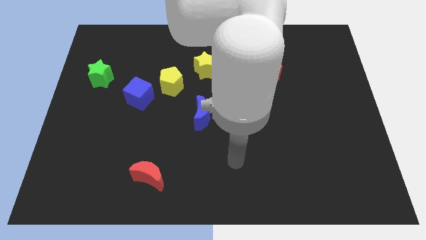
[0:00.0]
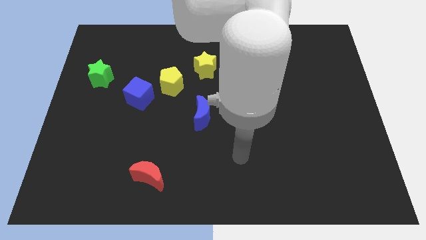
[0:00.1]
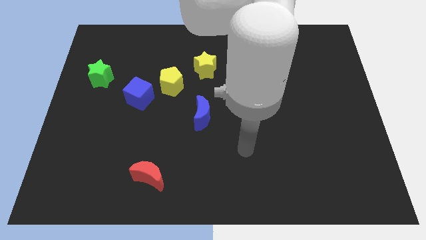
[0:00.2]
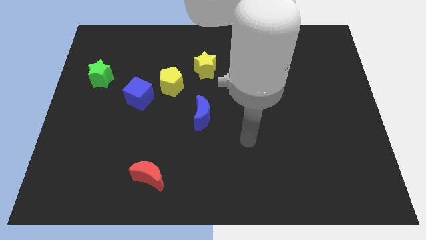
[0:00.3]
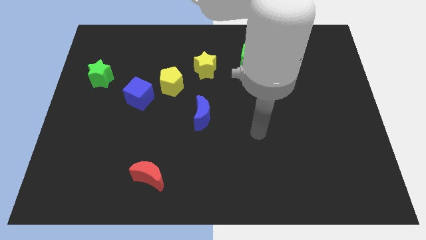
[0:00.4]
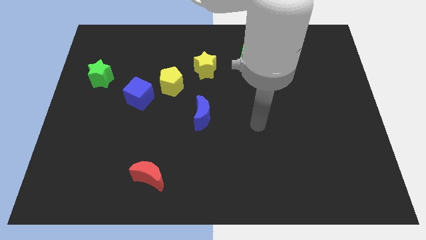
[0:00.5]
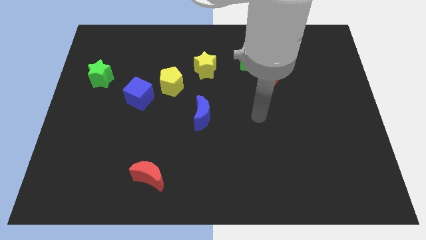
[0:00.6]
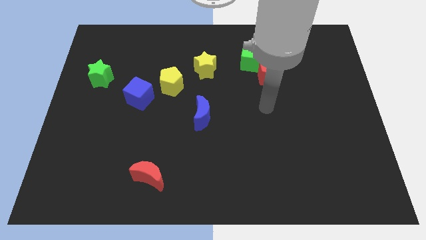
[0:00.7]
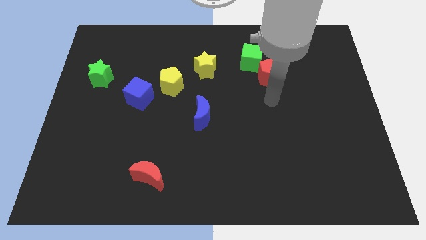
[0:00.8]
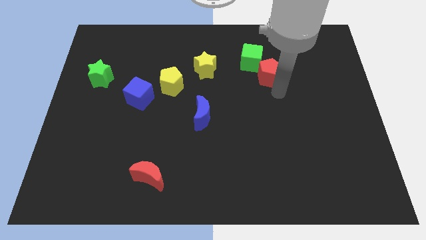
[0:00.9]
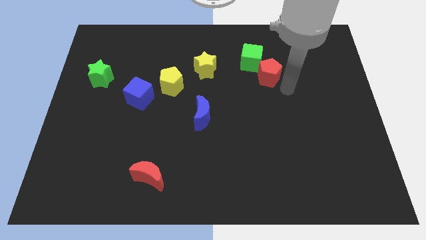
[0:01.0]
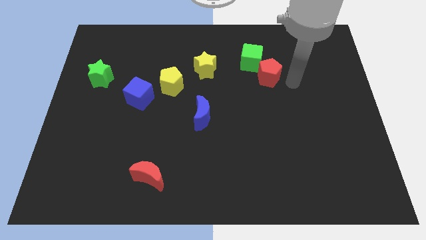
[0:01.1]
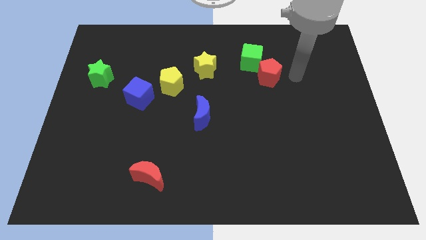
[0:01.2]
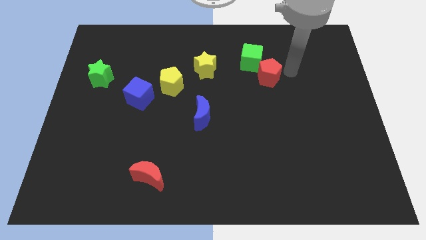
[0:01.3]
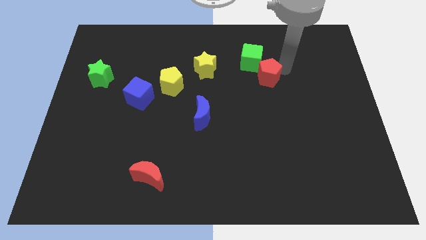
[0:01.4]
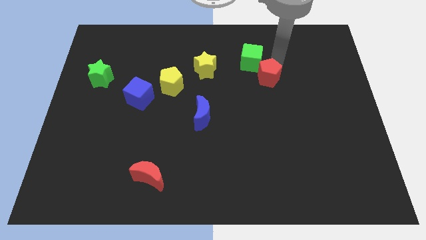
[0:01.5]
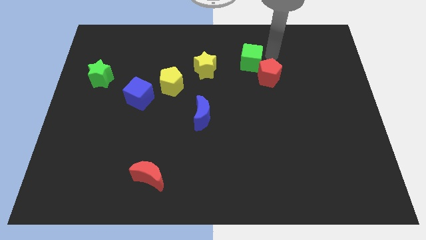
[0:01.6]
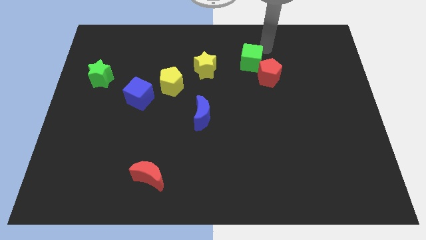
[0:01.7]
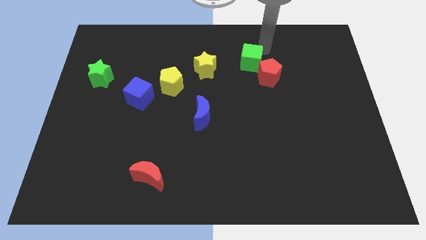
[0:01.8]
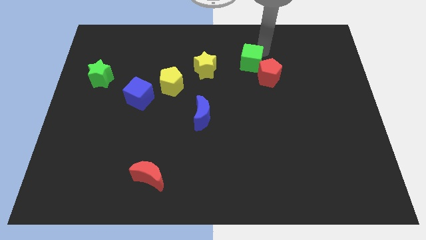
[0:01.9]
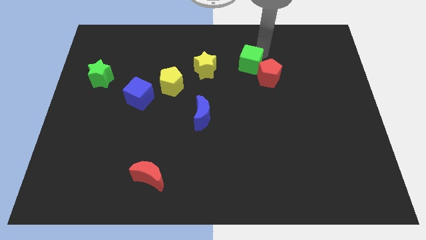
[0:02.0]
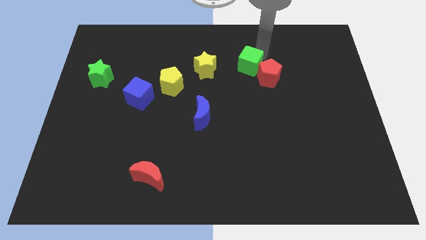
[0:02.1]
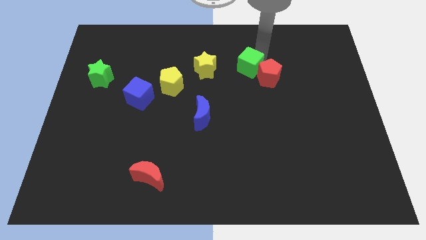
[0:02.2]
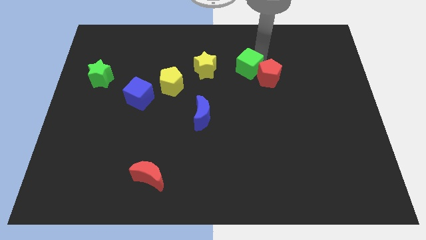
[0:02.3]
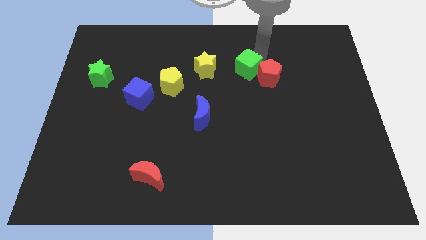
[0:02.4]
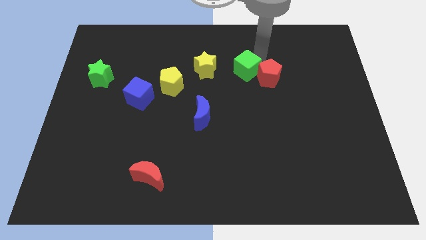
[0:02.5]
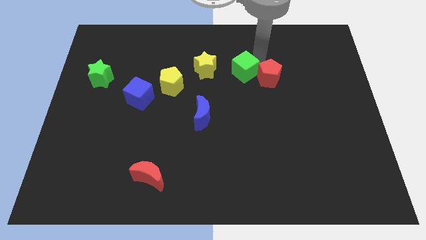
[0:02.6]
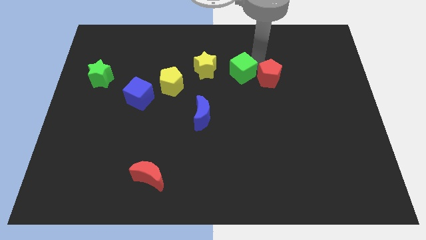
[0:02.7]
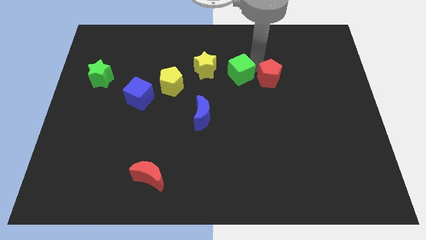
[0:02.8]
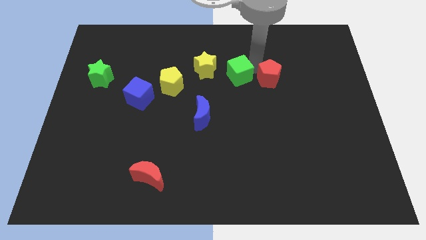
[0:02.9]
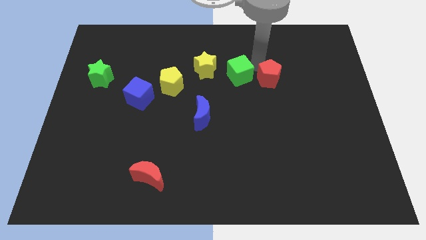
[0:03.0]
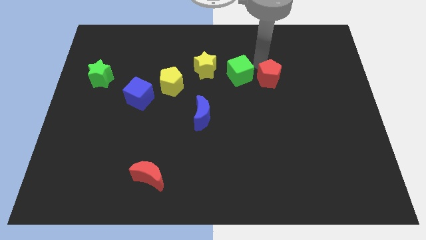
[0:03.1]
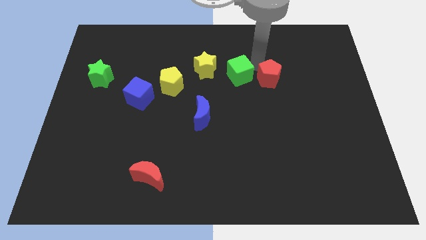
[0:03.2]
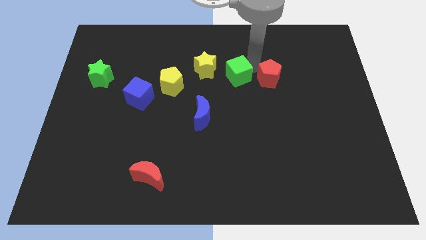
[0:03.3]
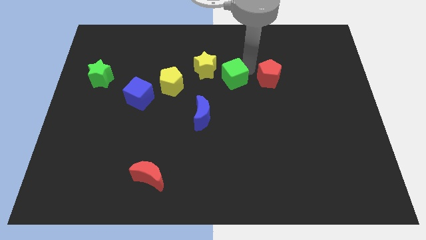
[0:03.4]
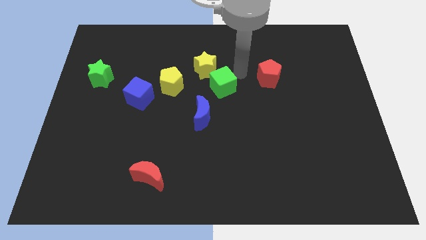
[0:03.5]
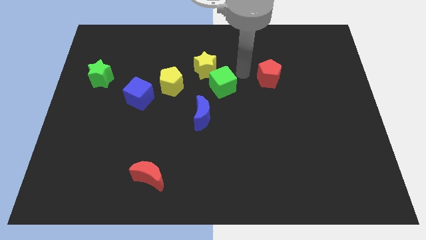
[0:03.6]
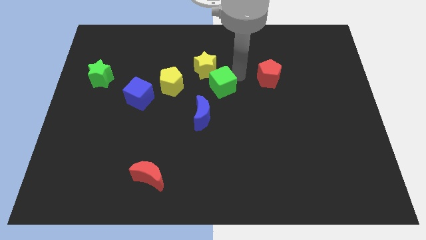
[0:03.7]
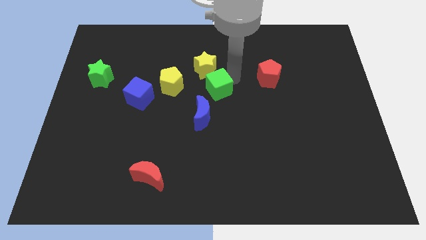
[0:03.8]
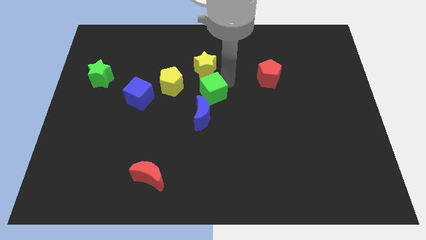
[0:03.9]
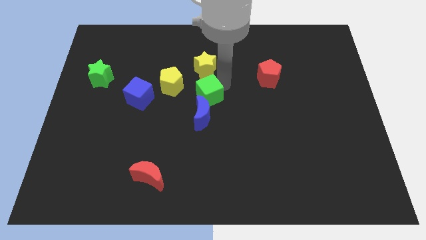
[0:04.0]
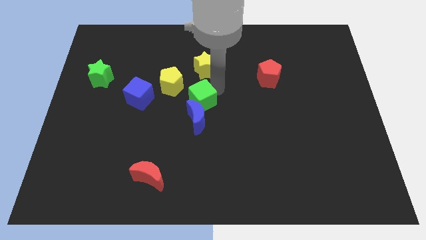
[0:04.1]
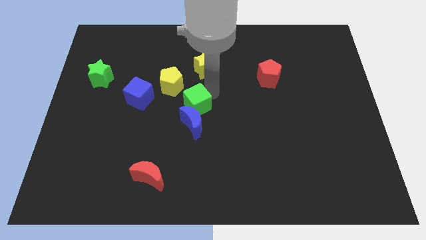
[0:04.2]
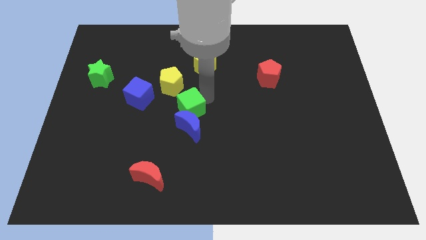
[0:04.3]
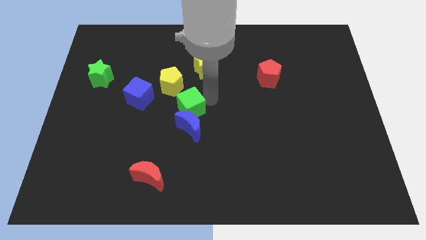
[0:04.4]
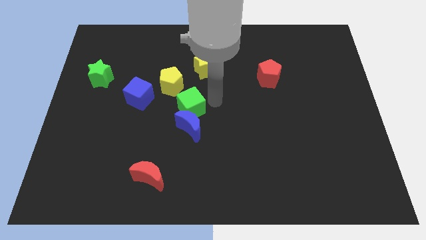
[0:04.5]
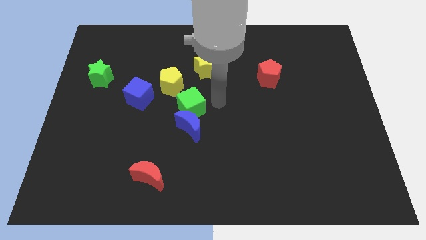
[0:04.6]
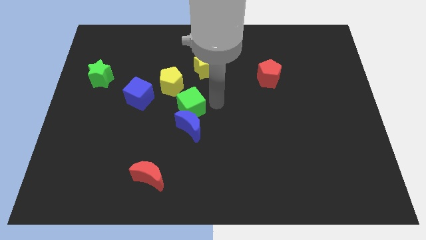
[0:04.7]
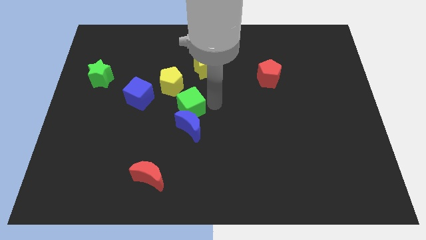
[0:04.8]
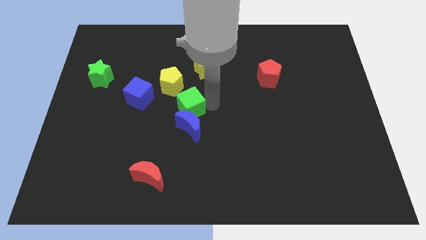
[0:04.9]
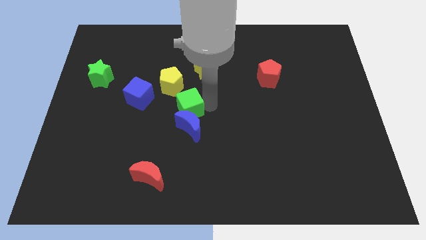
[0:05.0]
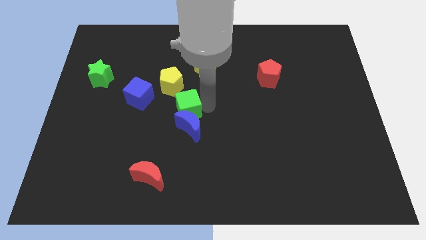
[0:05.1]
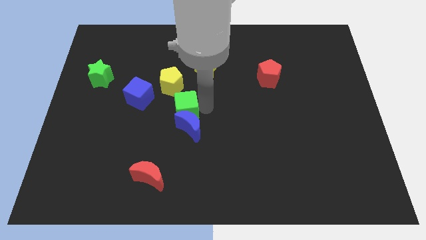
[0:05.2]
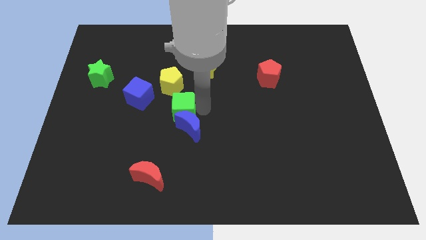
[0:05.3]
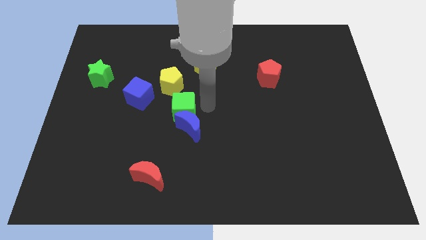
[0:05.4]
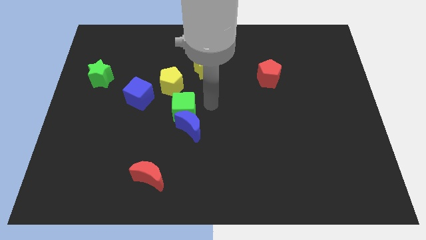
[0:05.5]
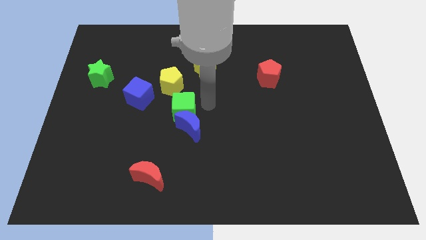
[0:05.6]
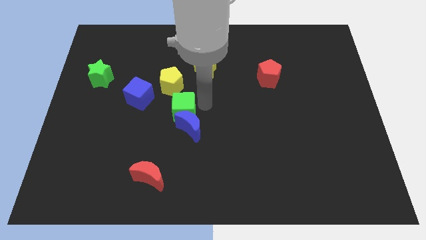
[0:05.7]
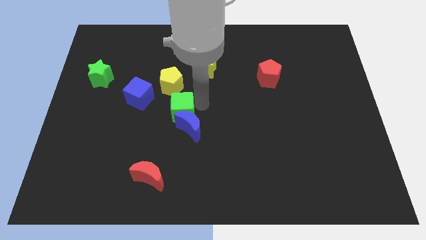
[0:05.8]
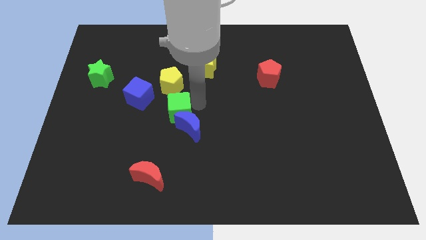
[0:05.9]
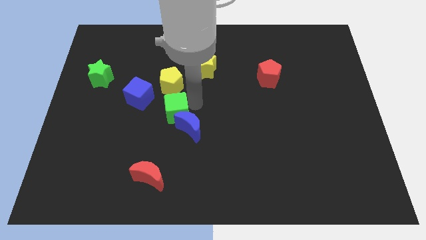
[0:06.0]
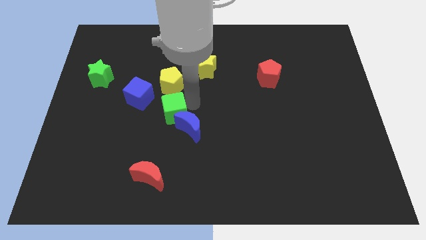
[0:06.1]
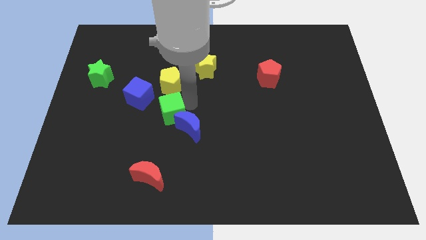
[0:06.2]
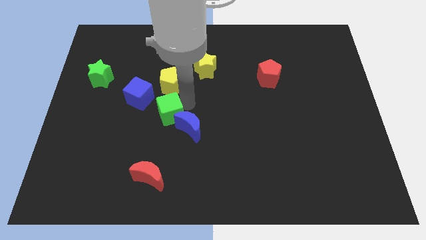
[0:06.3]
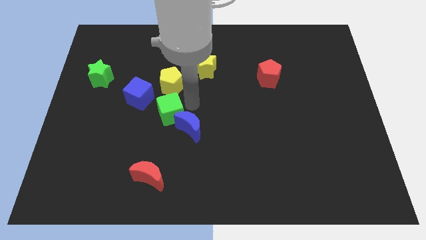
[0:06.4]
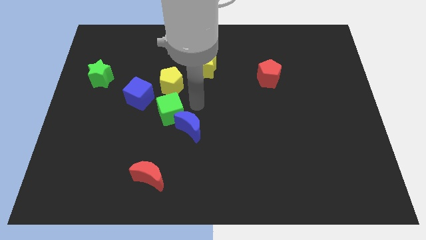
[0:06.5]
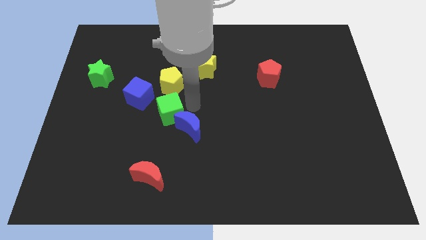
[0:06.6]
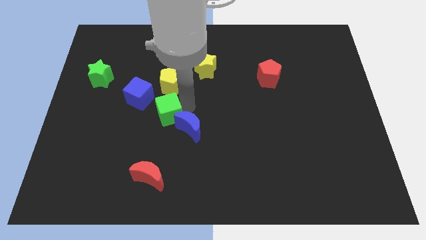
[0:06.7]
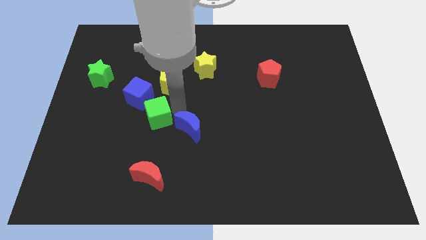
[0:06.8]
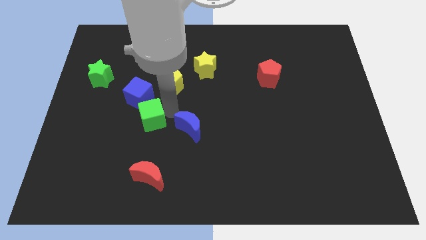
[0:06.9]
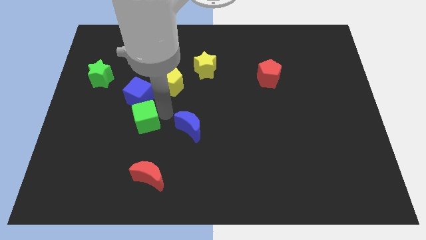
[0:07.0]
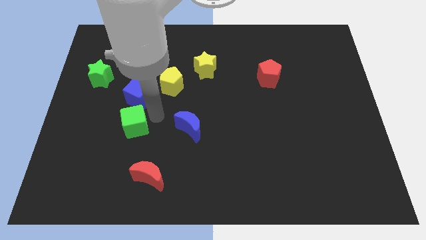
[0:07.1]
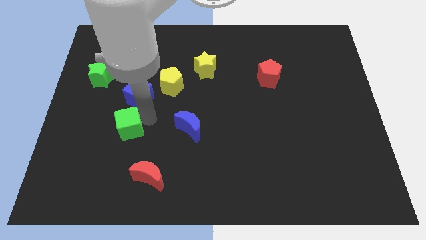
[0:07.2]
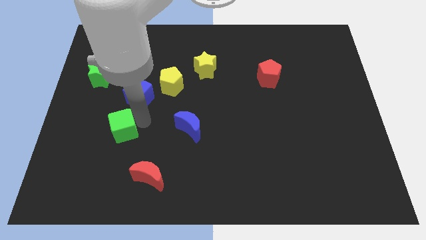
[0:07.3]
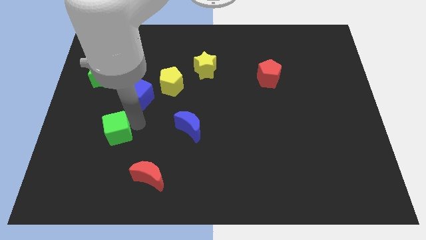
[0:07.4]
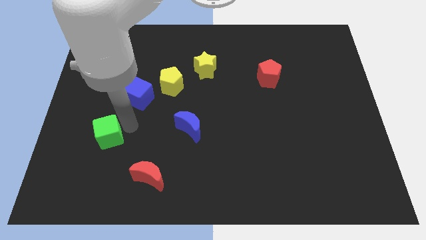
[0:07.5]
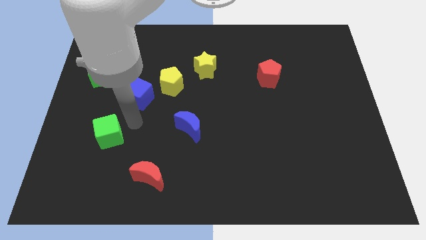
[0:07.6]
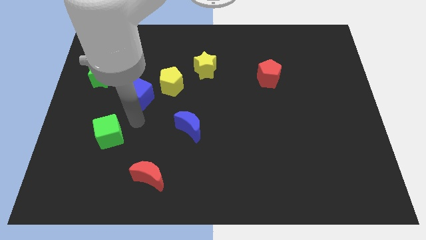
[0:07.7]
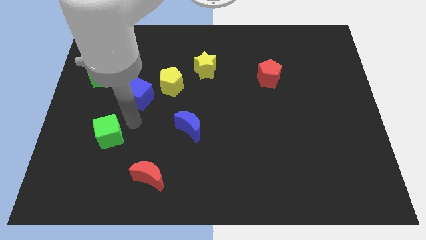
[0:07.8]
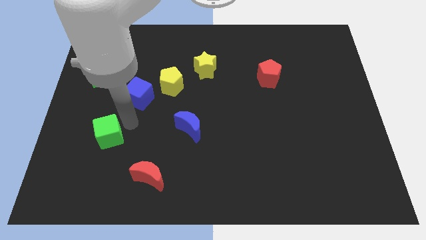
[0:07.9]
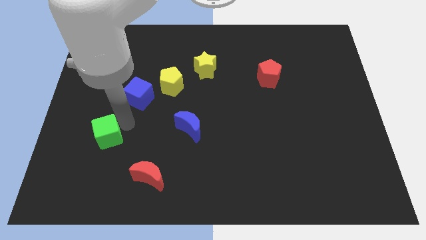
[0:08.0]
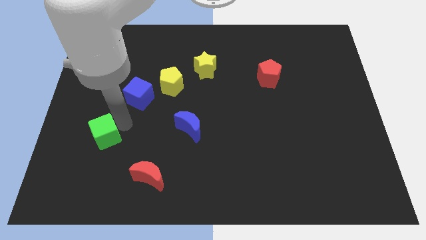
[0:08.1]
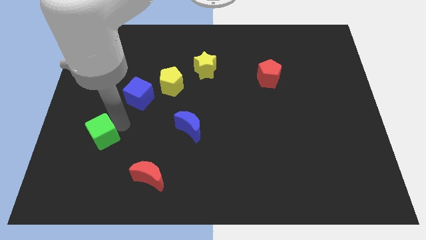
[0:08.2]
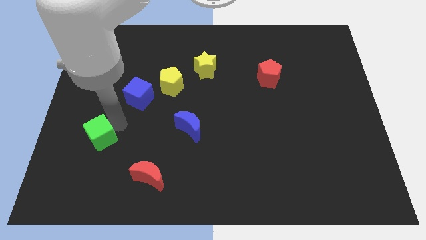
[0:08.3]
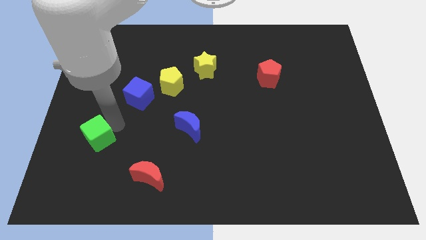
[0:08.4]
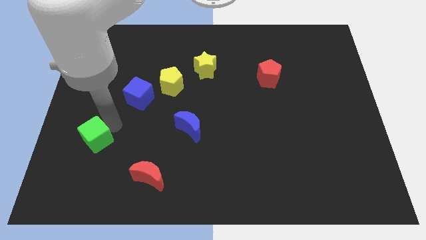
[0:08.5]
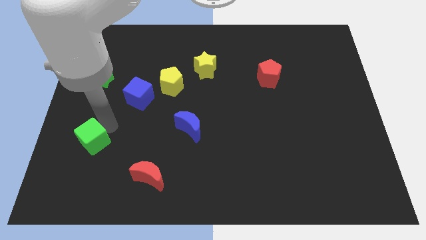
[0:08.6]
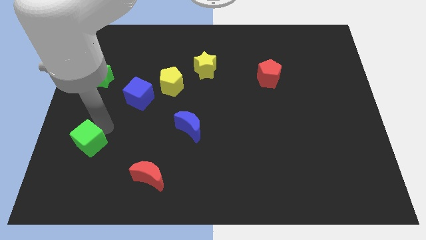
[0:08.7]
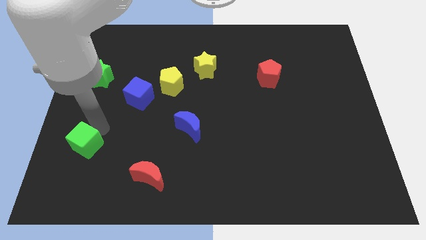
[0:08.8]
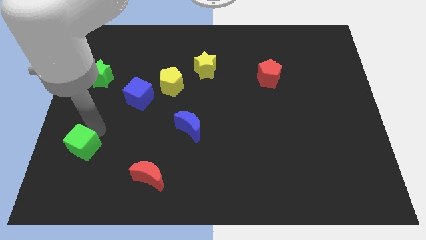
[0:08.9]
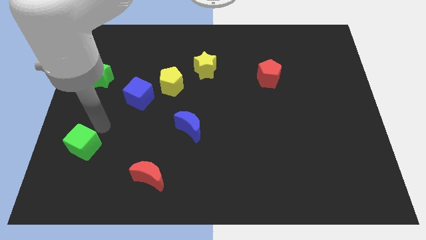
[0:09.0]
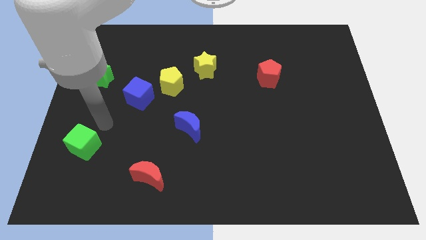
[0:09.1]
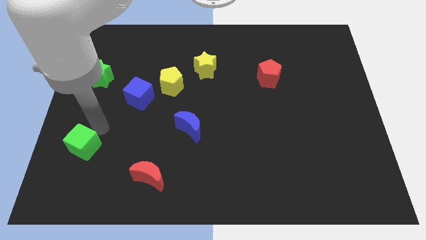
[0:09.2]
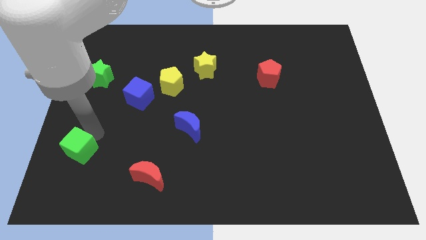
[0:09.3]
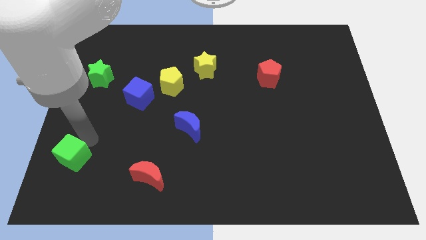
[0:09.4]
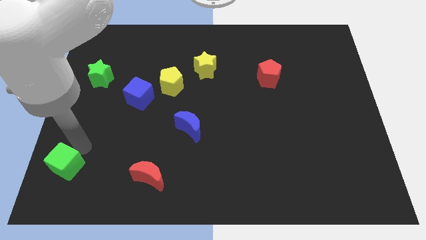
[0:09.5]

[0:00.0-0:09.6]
move the green cube to the bottom left of the board
